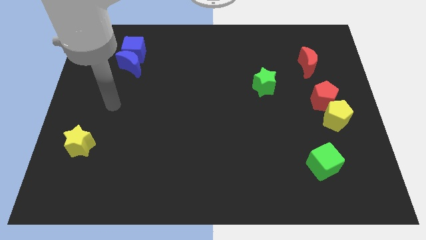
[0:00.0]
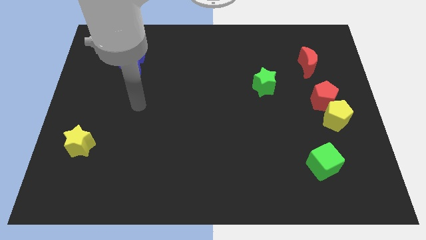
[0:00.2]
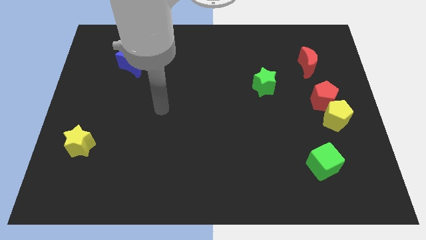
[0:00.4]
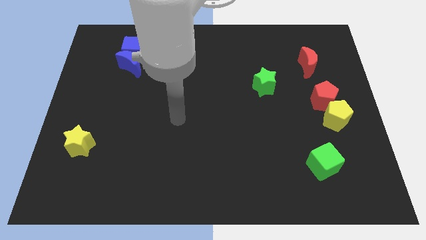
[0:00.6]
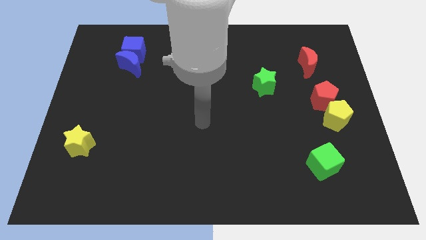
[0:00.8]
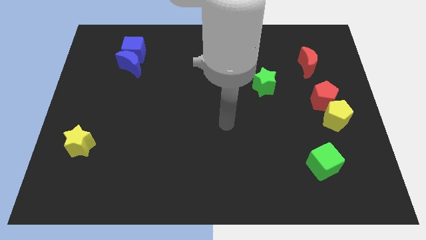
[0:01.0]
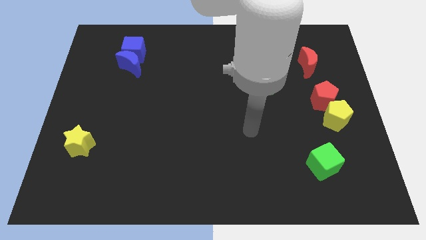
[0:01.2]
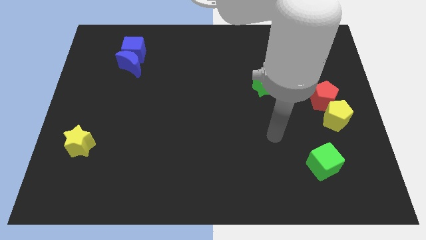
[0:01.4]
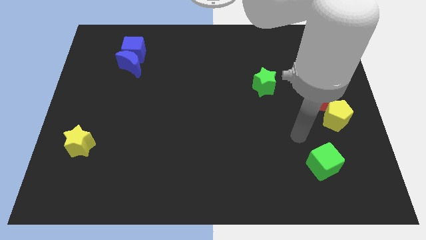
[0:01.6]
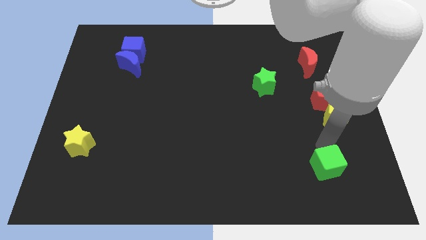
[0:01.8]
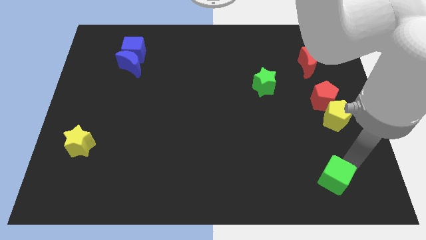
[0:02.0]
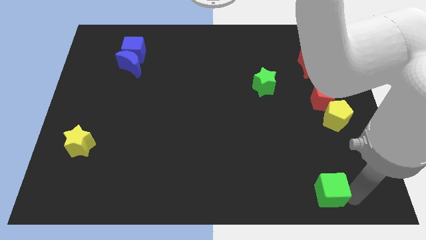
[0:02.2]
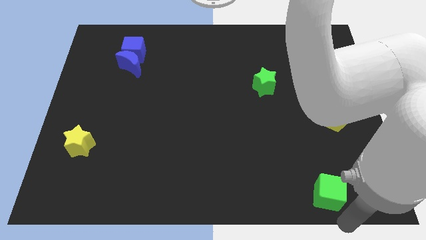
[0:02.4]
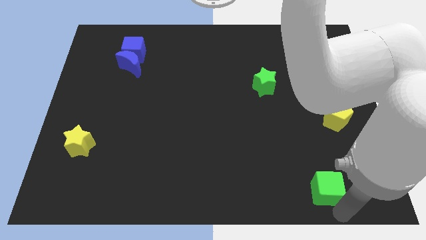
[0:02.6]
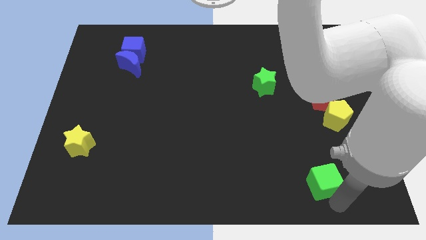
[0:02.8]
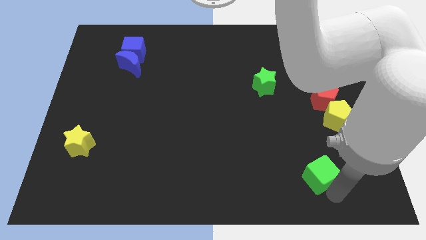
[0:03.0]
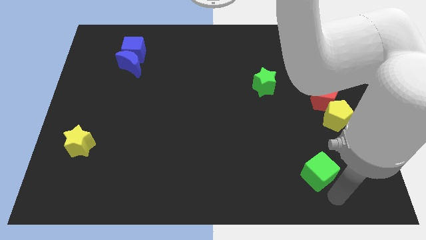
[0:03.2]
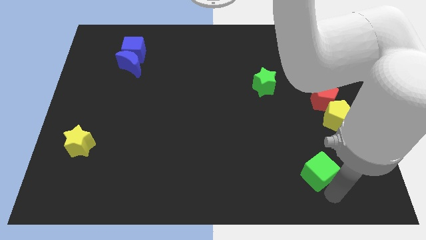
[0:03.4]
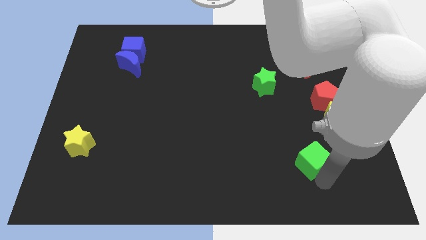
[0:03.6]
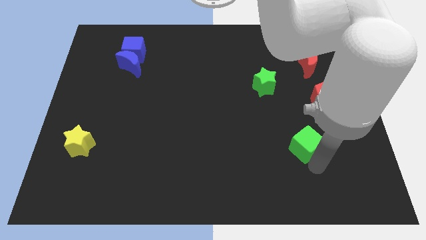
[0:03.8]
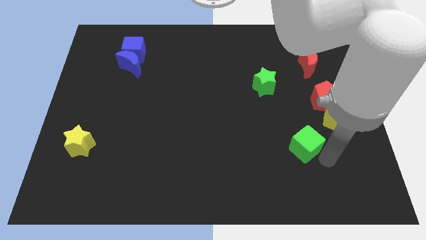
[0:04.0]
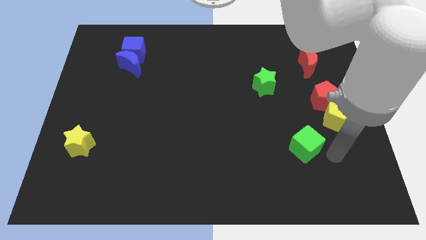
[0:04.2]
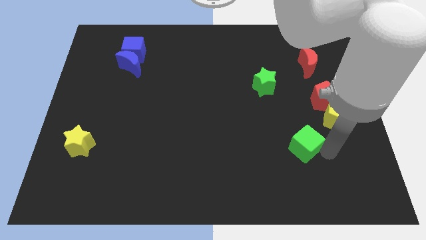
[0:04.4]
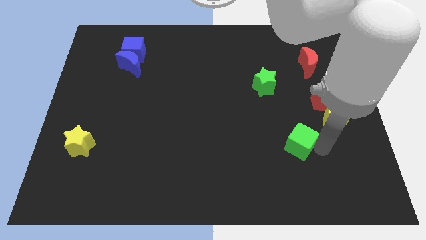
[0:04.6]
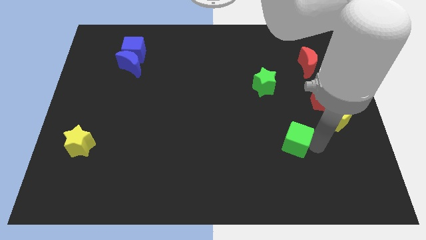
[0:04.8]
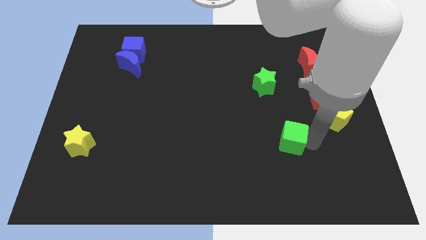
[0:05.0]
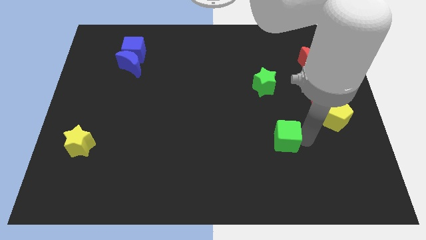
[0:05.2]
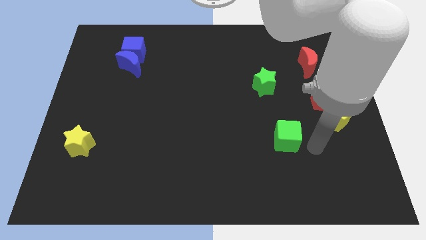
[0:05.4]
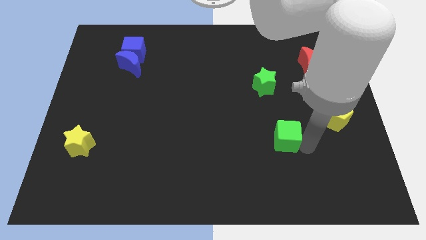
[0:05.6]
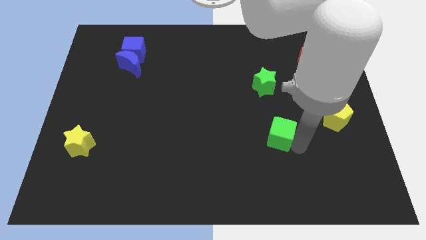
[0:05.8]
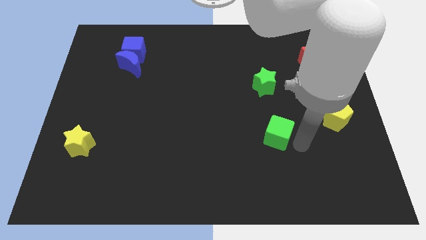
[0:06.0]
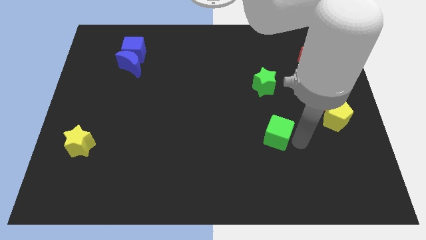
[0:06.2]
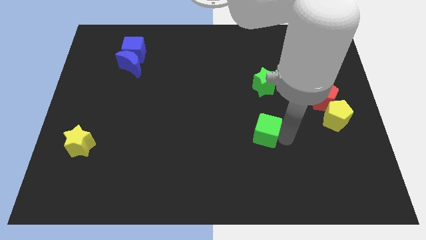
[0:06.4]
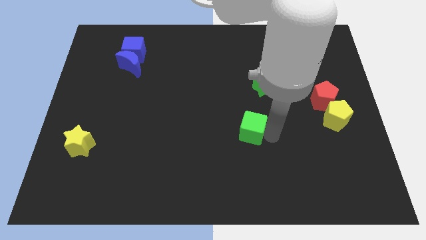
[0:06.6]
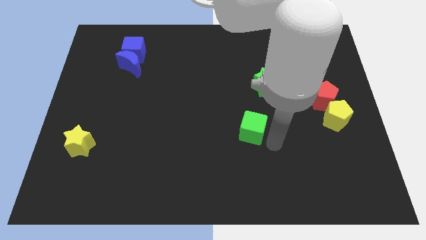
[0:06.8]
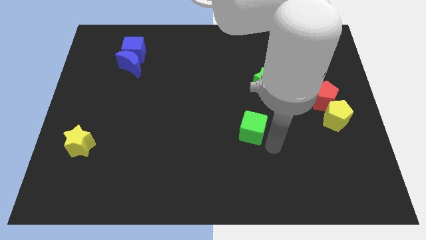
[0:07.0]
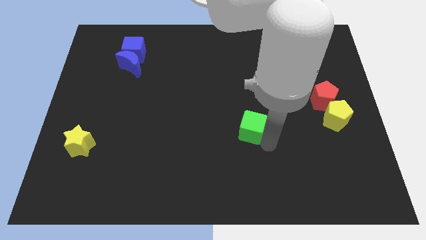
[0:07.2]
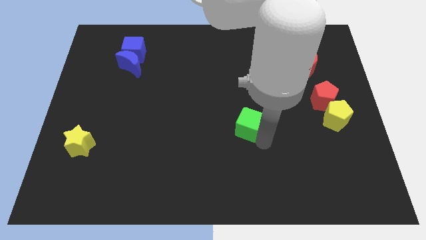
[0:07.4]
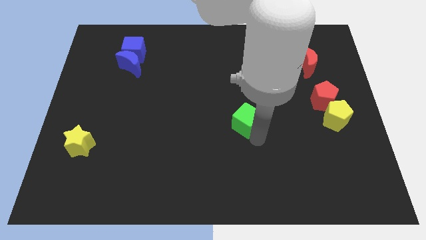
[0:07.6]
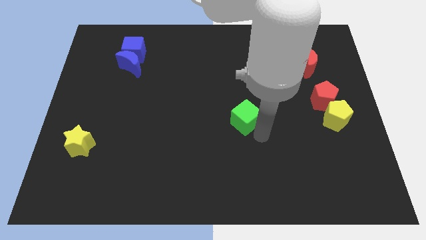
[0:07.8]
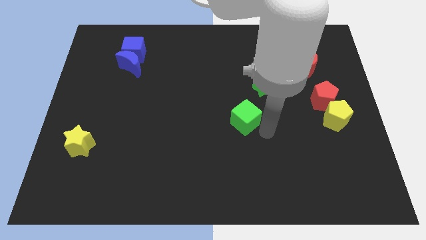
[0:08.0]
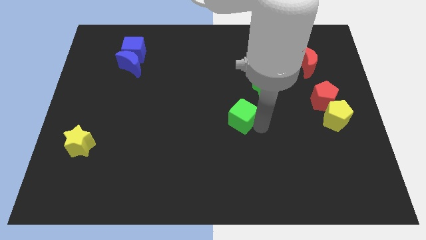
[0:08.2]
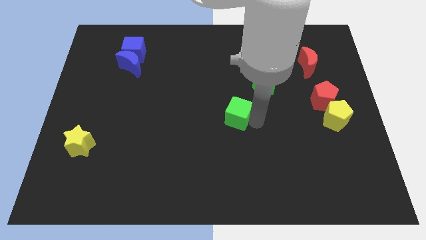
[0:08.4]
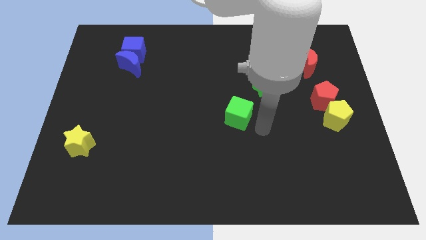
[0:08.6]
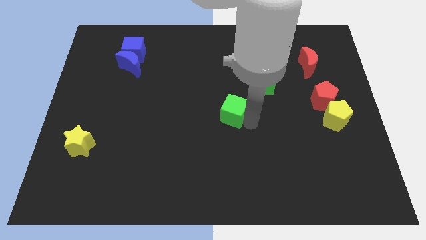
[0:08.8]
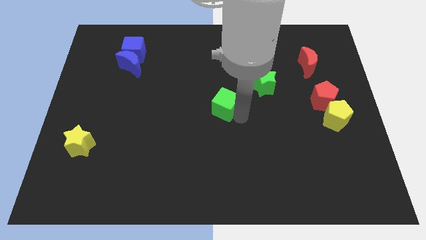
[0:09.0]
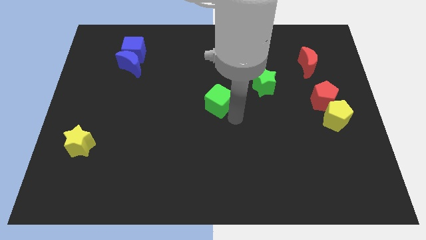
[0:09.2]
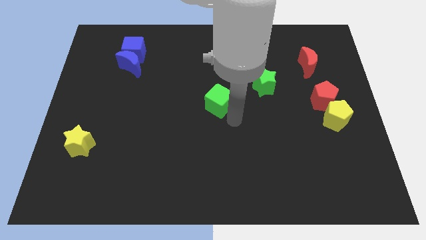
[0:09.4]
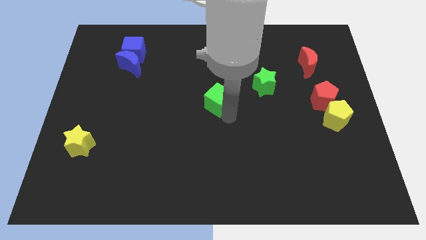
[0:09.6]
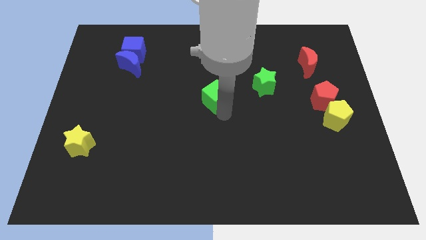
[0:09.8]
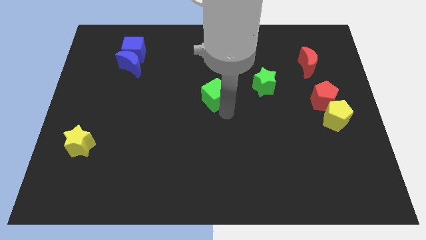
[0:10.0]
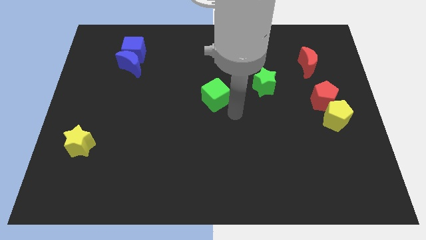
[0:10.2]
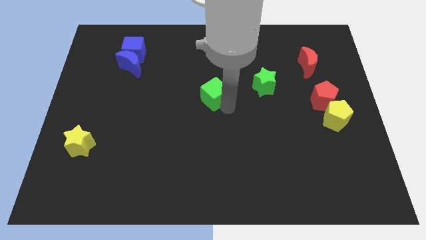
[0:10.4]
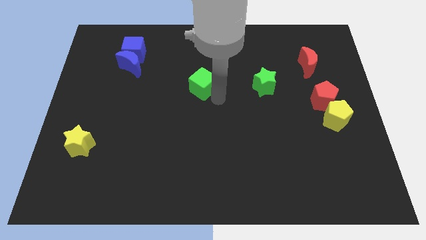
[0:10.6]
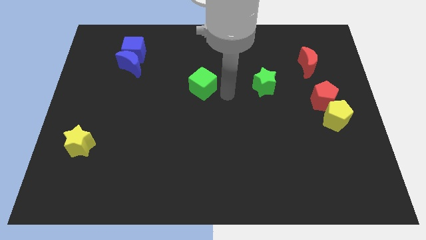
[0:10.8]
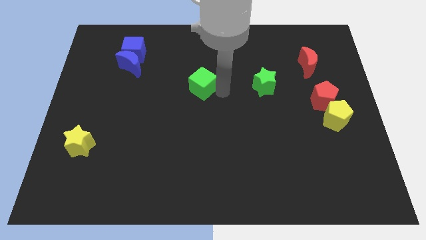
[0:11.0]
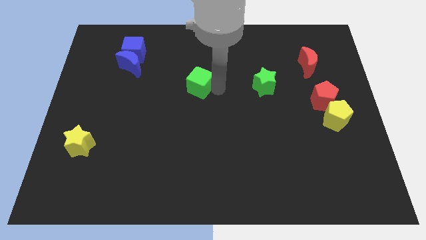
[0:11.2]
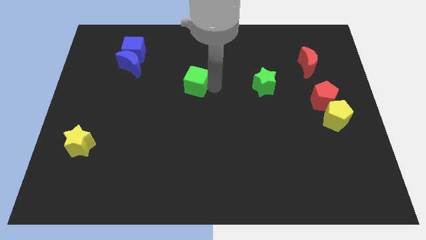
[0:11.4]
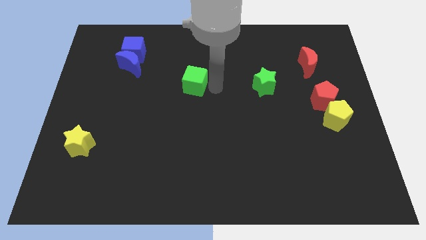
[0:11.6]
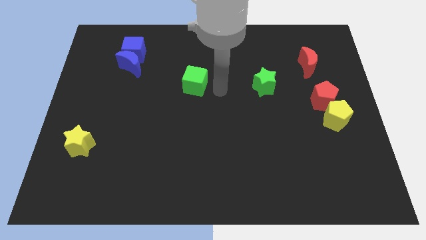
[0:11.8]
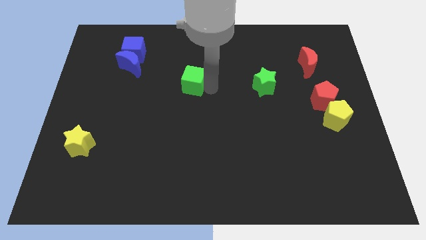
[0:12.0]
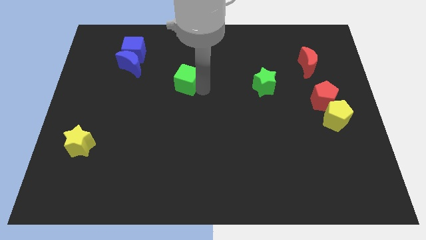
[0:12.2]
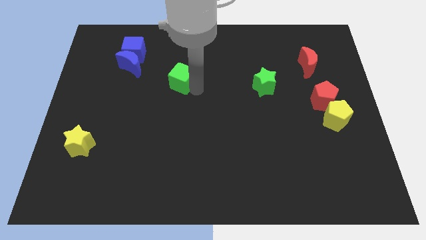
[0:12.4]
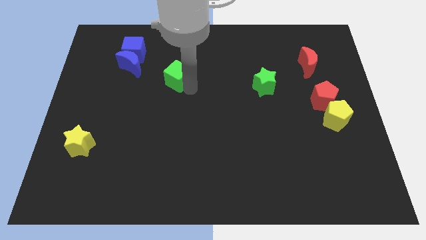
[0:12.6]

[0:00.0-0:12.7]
slide the green cube to the right side of the blue moon
